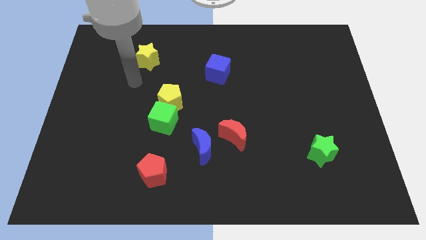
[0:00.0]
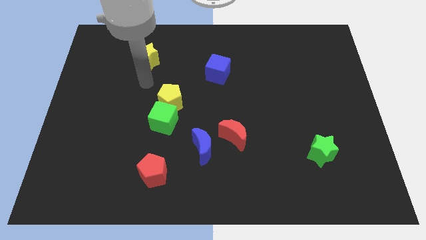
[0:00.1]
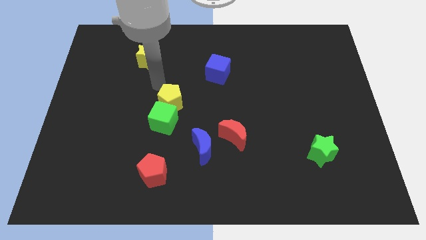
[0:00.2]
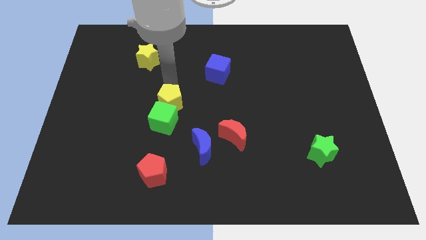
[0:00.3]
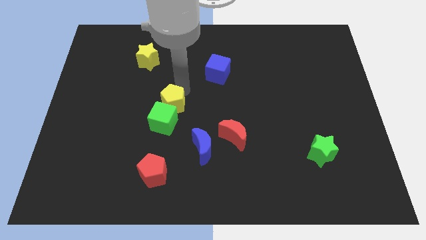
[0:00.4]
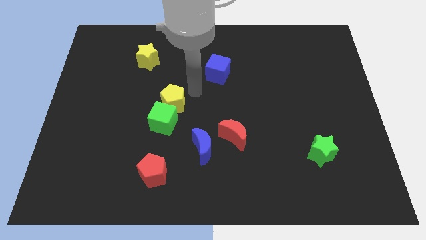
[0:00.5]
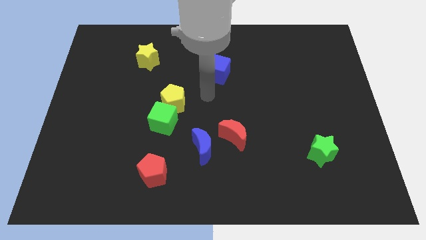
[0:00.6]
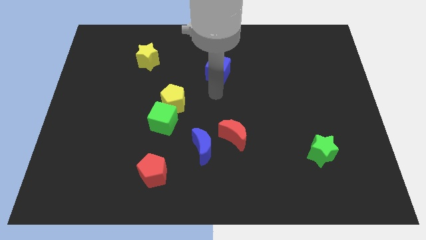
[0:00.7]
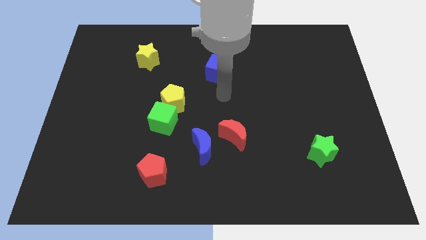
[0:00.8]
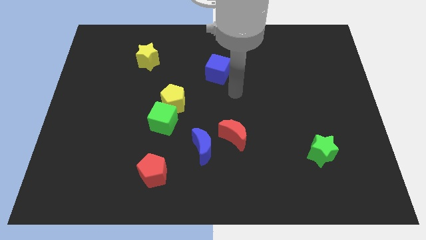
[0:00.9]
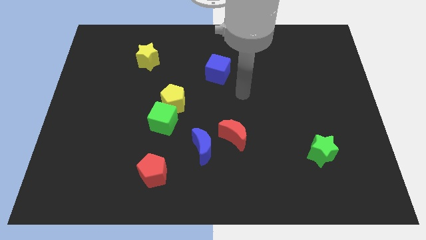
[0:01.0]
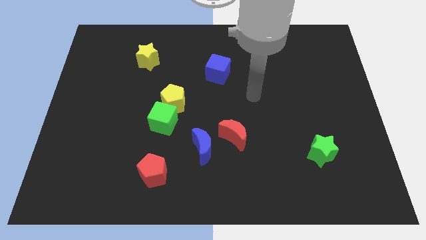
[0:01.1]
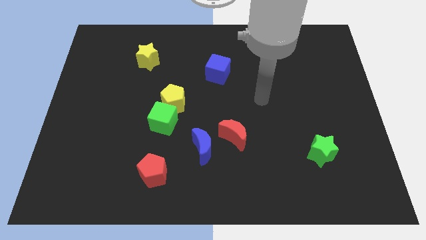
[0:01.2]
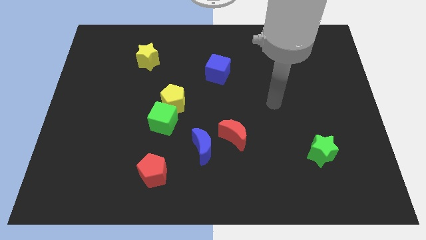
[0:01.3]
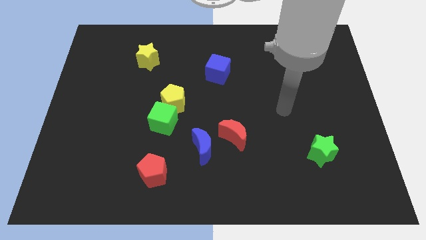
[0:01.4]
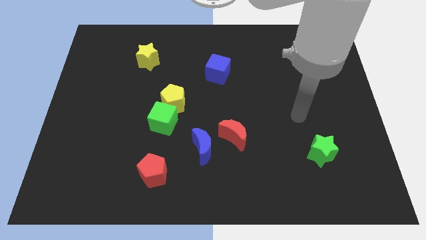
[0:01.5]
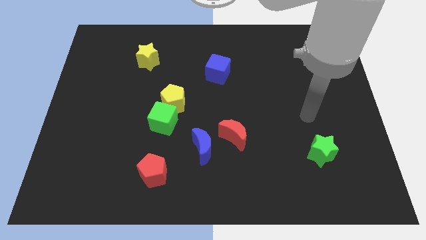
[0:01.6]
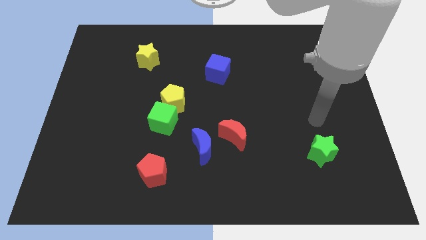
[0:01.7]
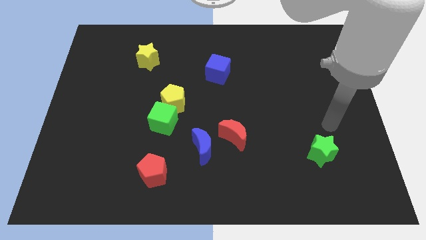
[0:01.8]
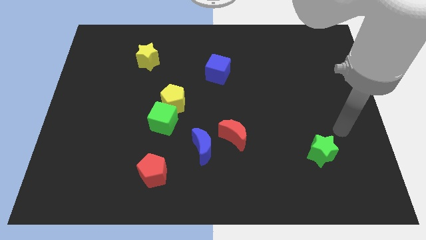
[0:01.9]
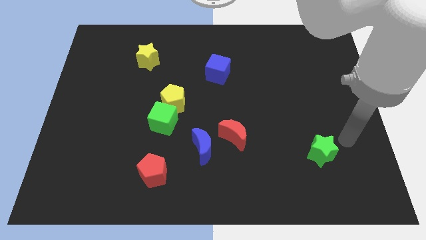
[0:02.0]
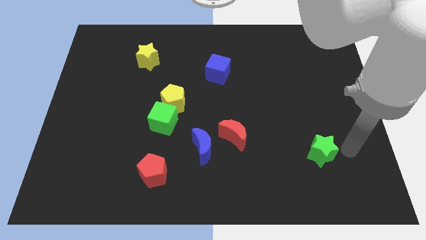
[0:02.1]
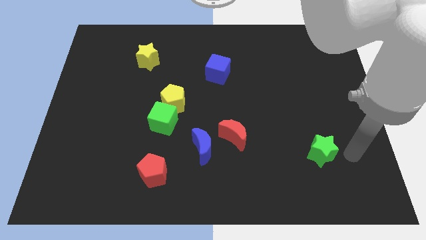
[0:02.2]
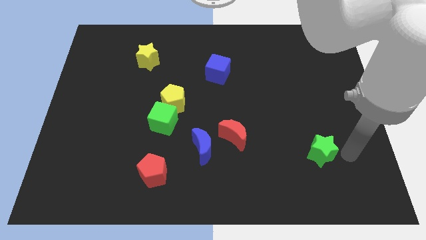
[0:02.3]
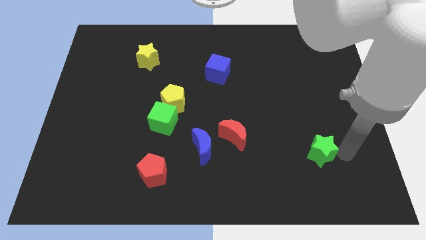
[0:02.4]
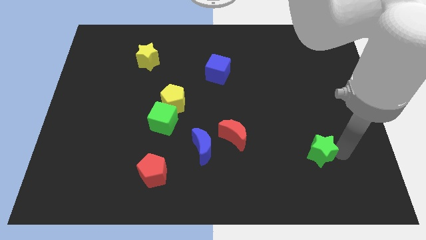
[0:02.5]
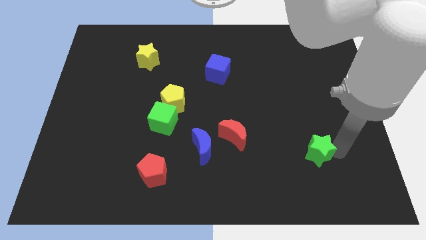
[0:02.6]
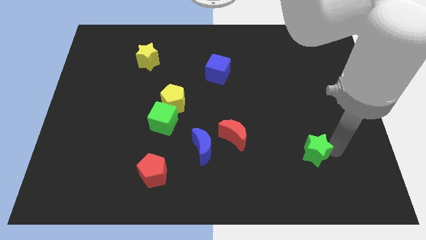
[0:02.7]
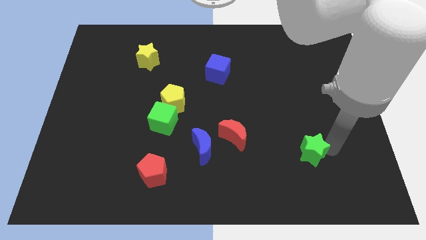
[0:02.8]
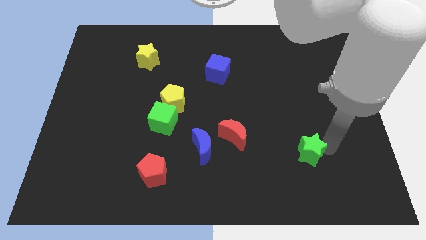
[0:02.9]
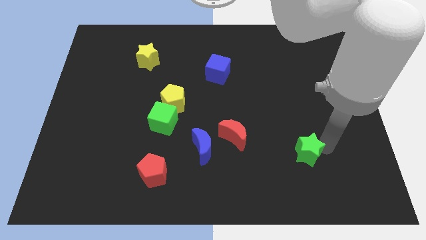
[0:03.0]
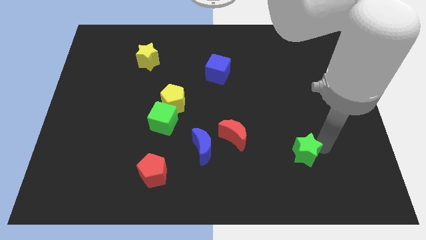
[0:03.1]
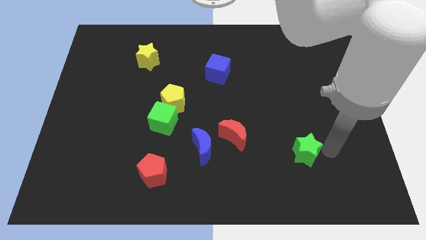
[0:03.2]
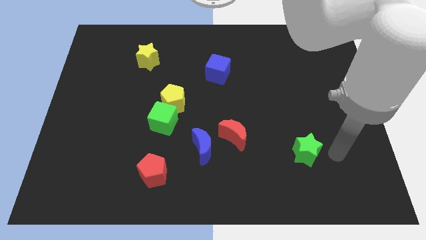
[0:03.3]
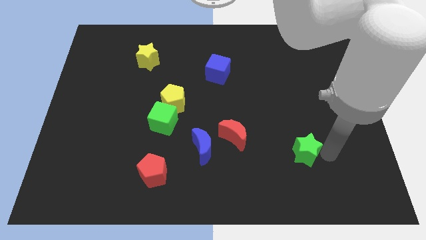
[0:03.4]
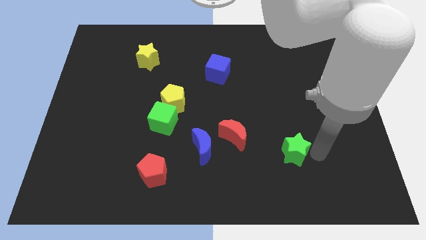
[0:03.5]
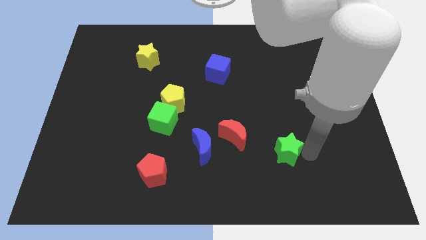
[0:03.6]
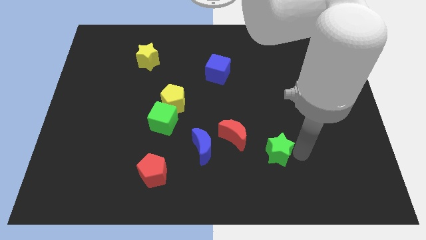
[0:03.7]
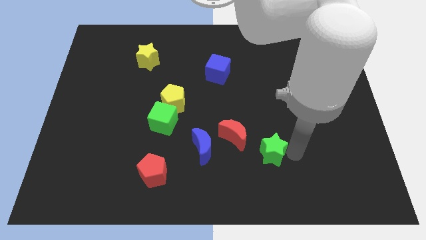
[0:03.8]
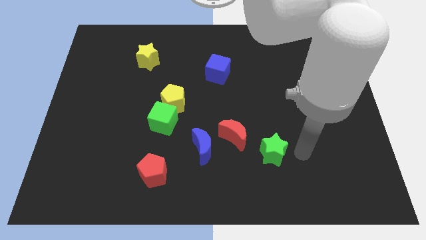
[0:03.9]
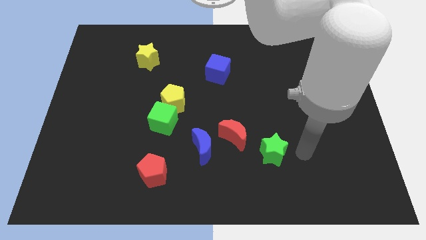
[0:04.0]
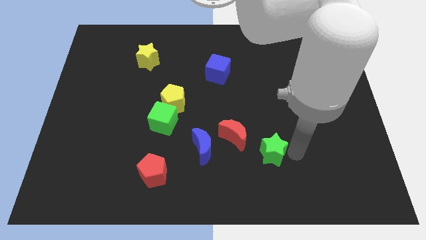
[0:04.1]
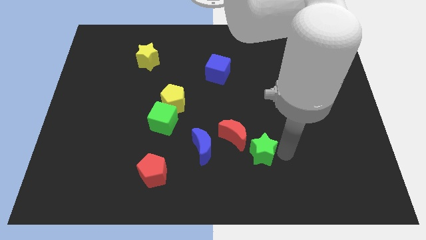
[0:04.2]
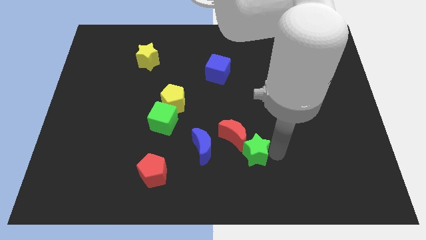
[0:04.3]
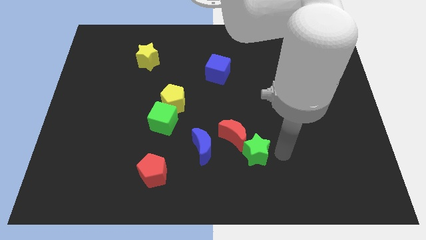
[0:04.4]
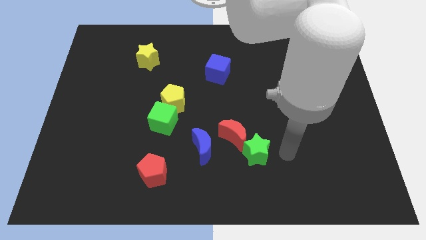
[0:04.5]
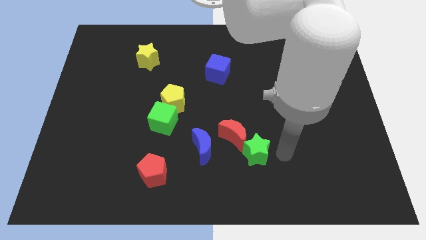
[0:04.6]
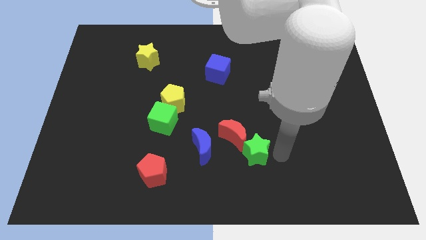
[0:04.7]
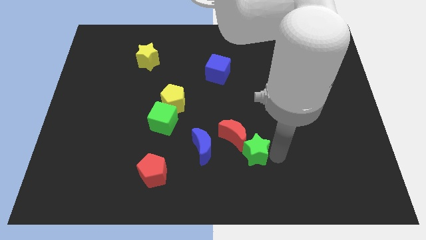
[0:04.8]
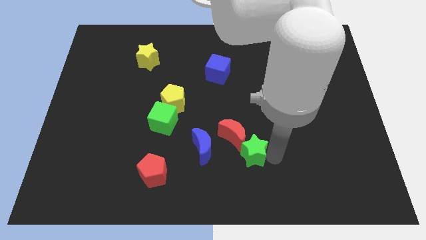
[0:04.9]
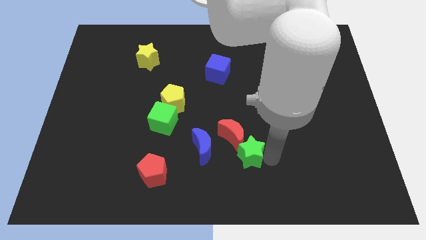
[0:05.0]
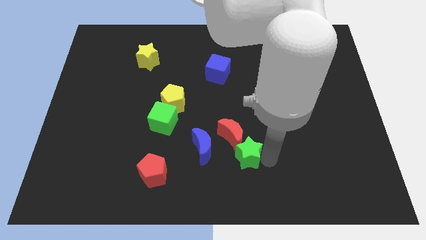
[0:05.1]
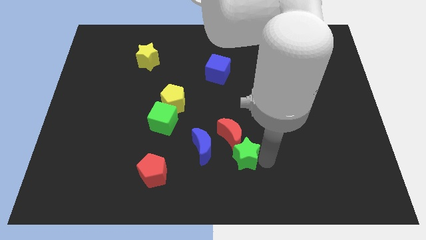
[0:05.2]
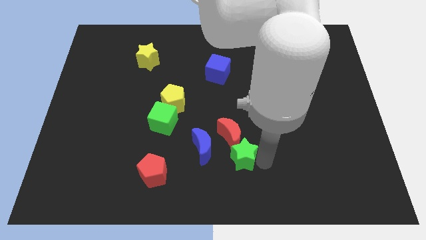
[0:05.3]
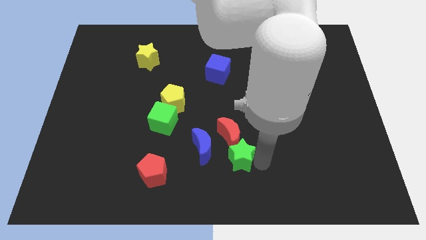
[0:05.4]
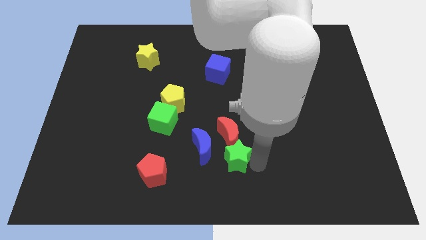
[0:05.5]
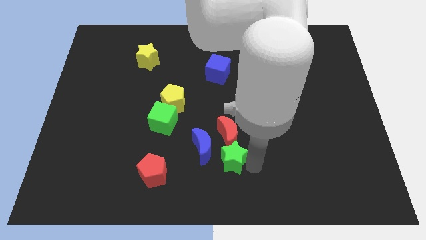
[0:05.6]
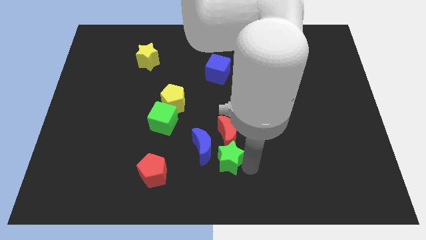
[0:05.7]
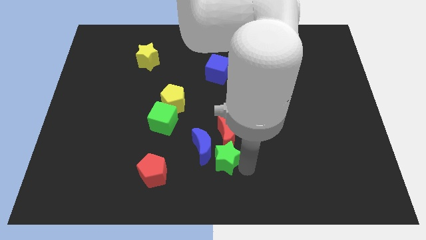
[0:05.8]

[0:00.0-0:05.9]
move the green star close to the blue moon

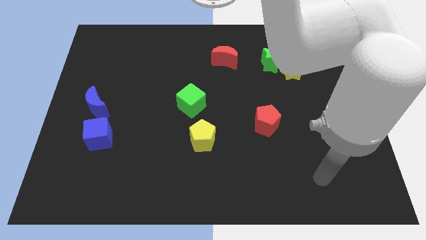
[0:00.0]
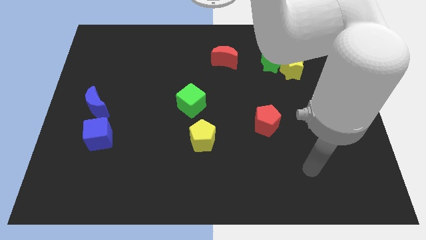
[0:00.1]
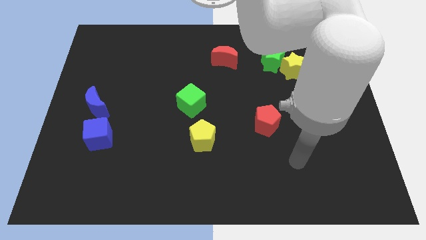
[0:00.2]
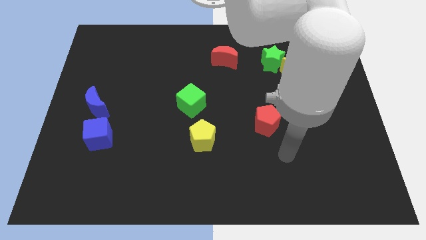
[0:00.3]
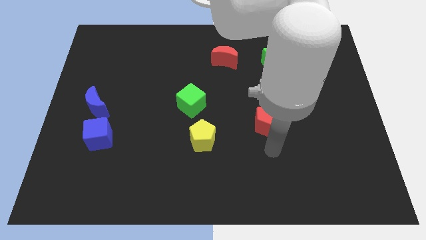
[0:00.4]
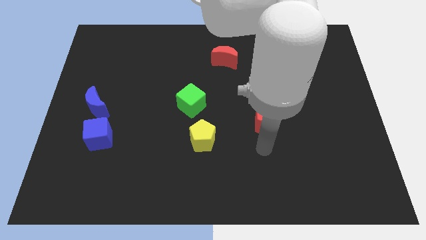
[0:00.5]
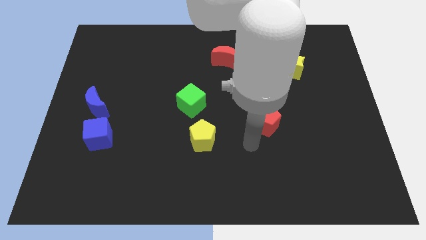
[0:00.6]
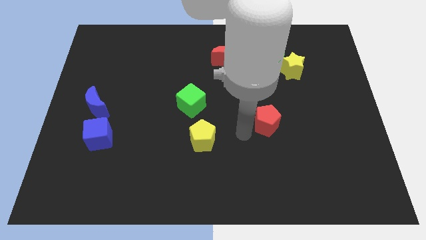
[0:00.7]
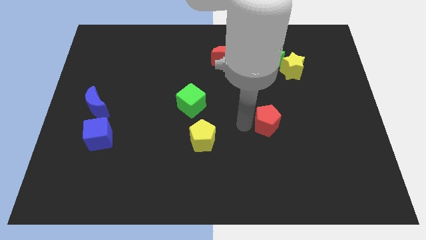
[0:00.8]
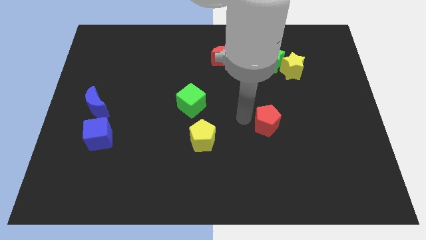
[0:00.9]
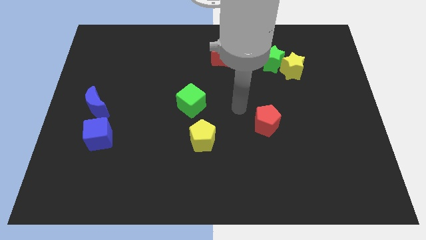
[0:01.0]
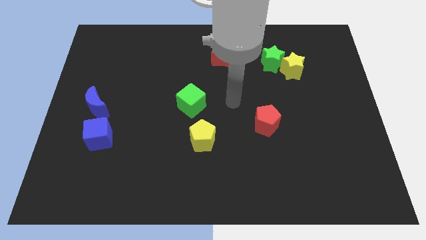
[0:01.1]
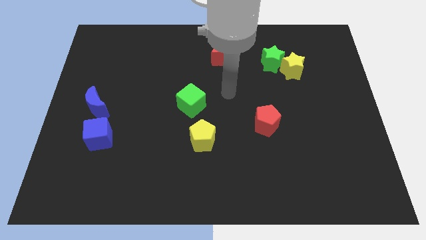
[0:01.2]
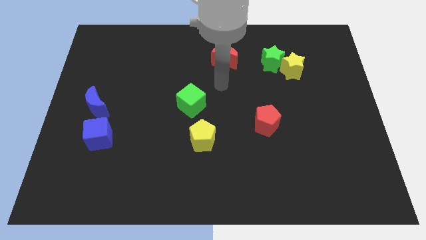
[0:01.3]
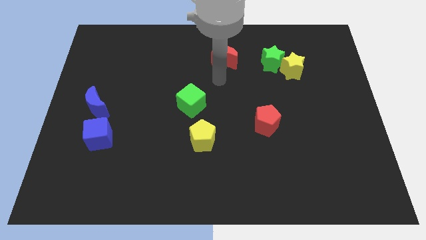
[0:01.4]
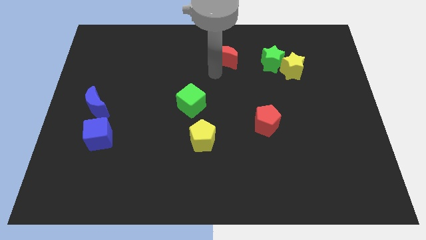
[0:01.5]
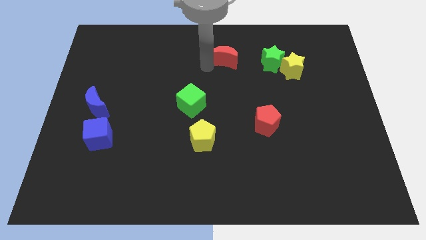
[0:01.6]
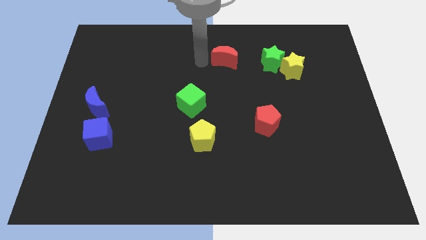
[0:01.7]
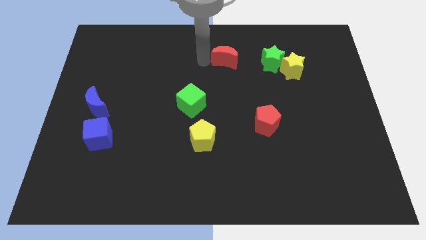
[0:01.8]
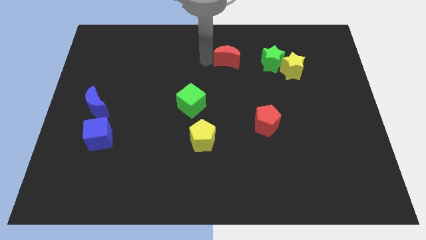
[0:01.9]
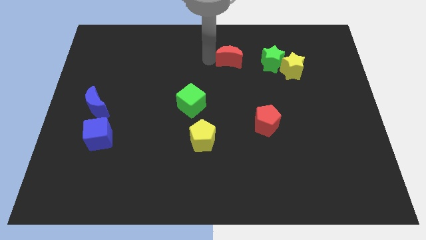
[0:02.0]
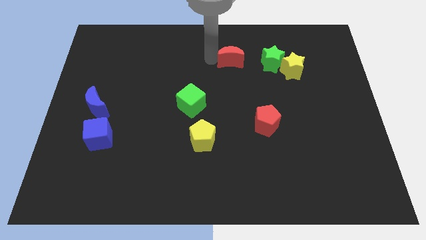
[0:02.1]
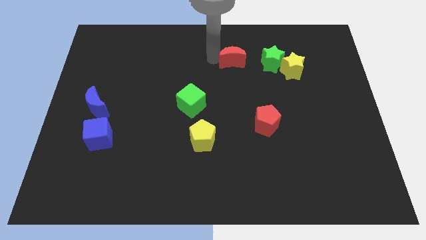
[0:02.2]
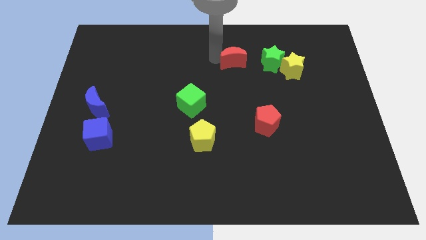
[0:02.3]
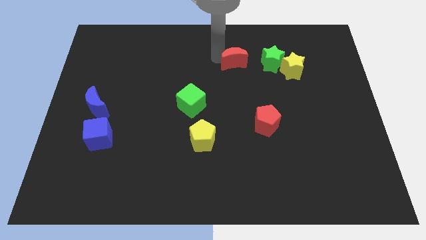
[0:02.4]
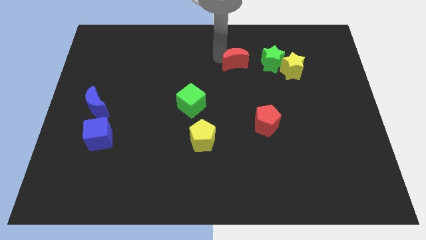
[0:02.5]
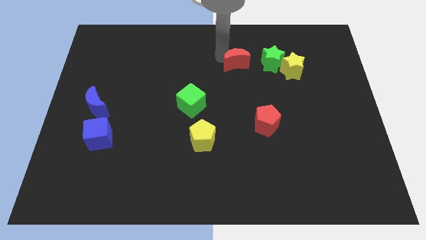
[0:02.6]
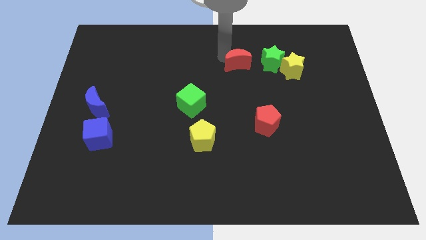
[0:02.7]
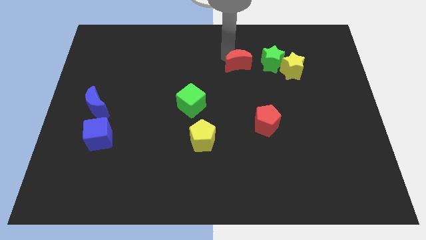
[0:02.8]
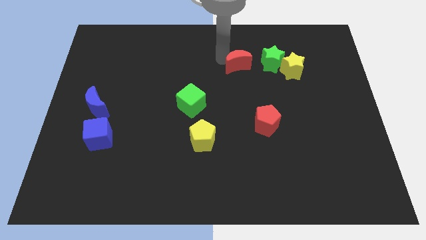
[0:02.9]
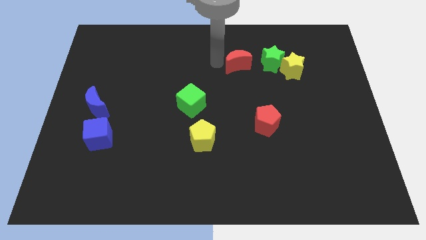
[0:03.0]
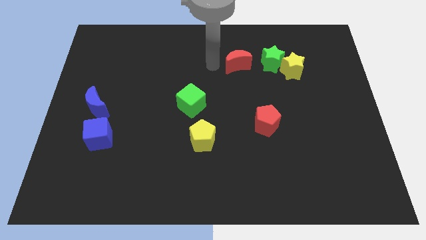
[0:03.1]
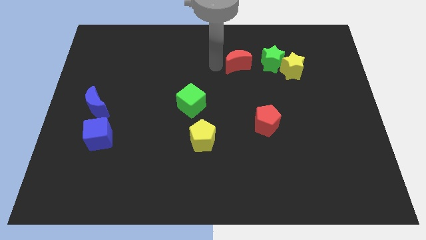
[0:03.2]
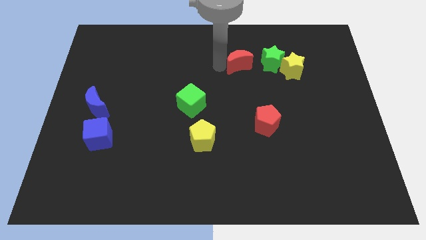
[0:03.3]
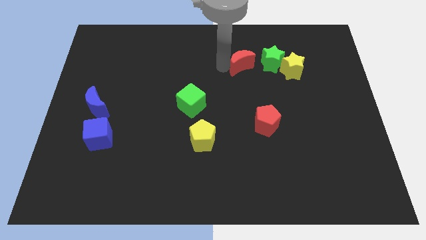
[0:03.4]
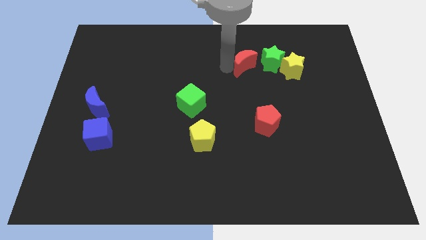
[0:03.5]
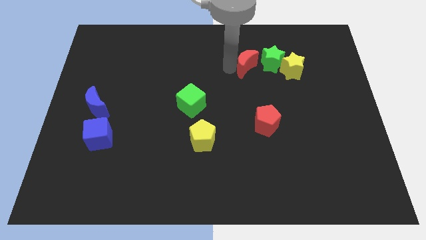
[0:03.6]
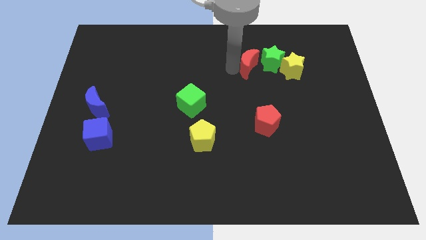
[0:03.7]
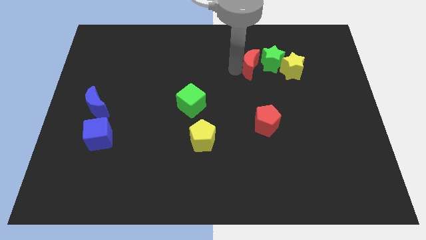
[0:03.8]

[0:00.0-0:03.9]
put the red moon towards the green star
